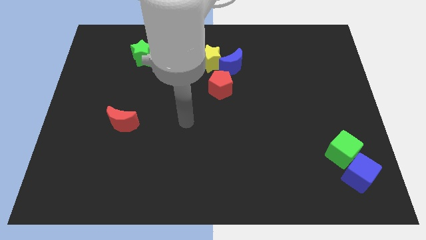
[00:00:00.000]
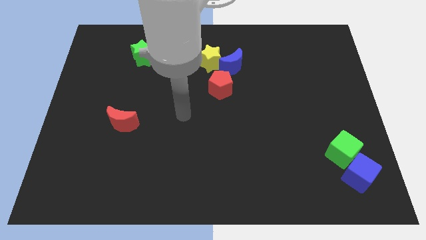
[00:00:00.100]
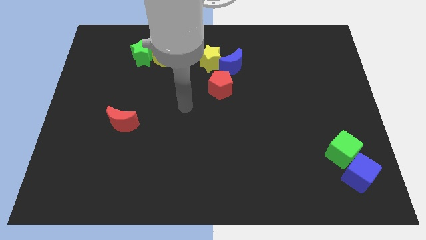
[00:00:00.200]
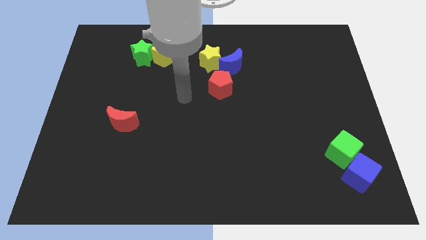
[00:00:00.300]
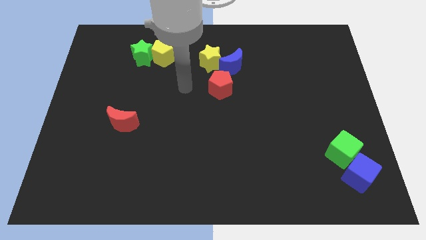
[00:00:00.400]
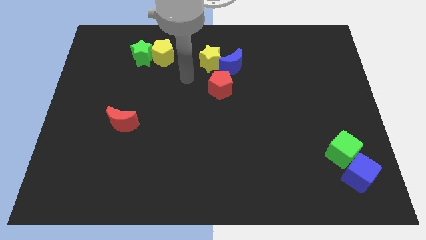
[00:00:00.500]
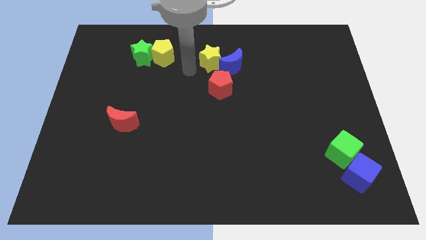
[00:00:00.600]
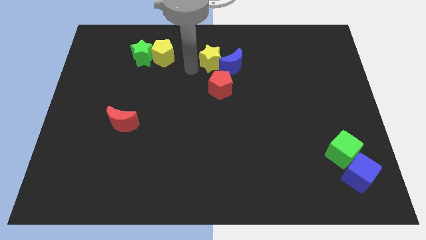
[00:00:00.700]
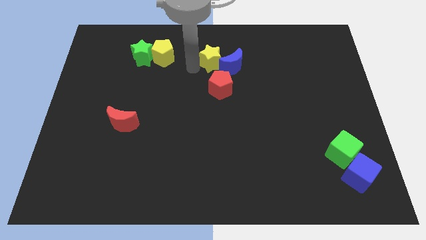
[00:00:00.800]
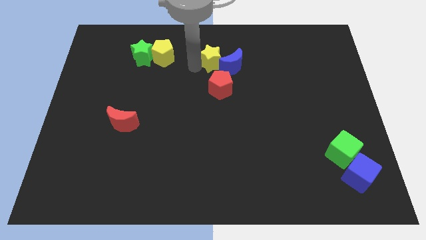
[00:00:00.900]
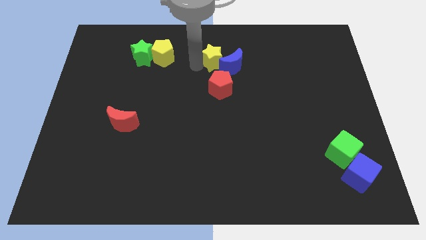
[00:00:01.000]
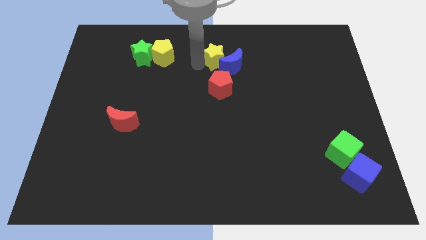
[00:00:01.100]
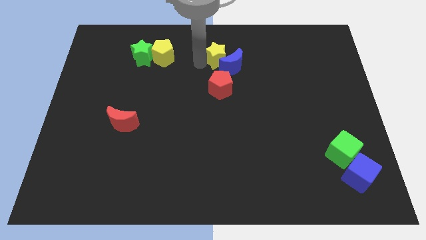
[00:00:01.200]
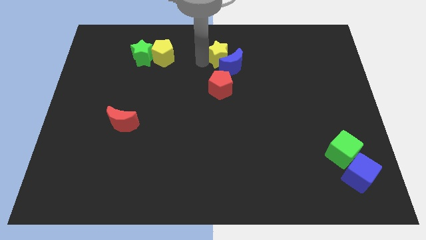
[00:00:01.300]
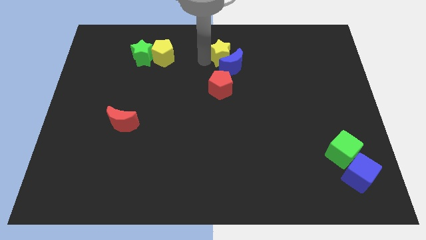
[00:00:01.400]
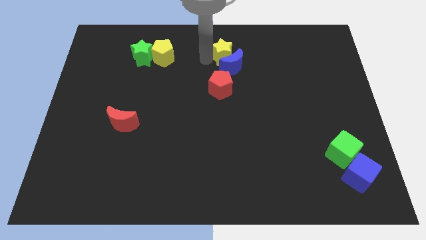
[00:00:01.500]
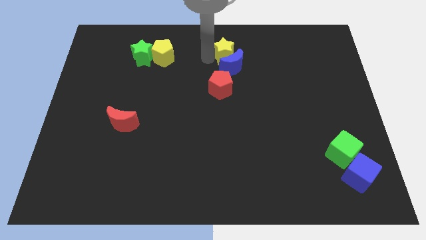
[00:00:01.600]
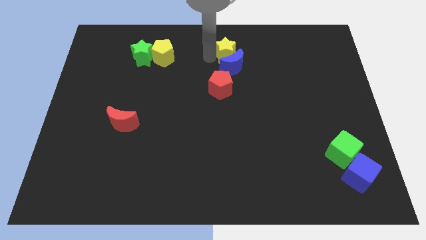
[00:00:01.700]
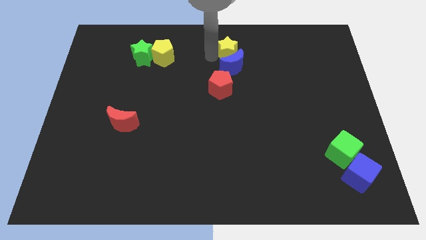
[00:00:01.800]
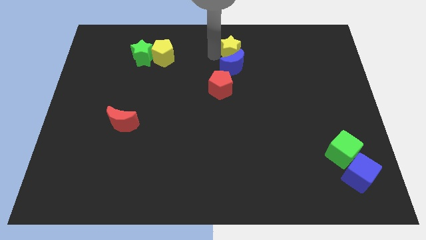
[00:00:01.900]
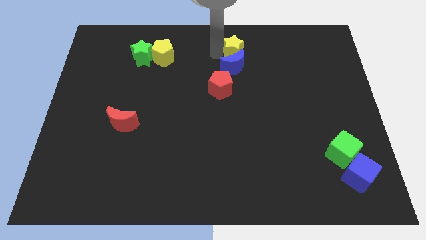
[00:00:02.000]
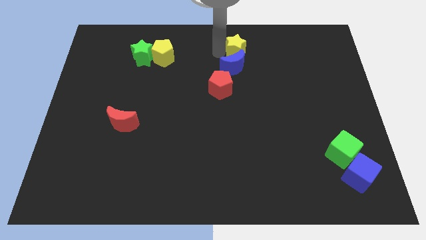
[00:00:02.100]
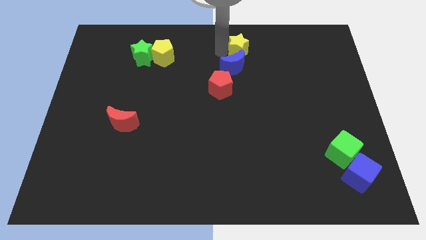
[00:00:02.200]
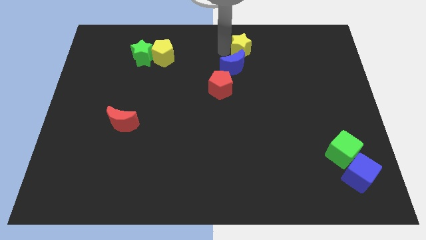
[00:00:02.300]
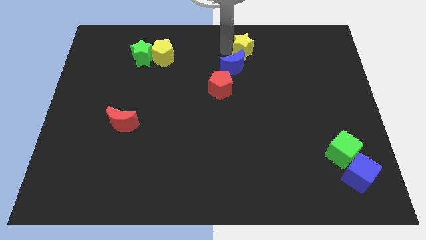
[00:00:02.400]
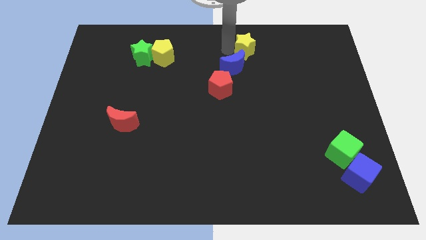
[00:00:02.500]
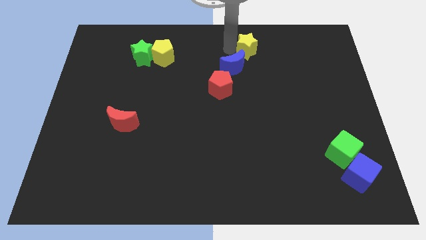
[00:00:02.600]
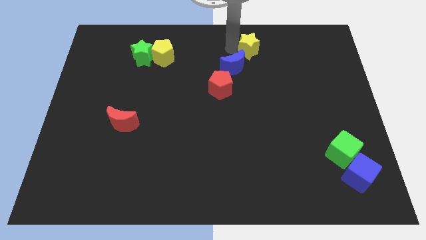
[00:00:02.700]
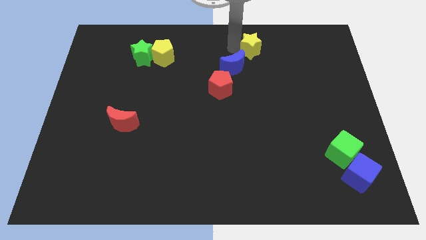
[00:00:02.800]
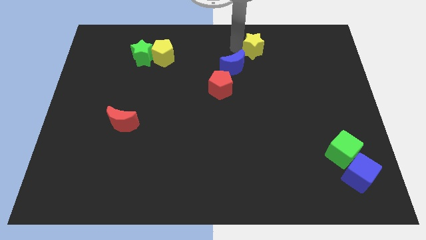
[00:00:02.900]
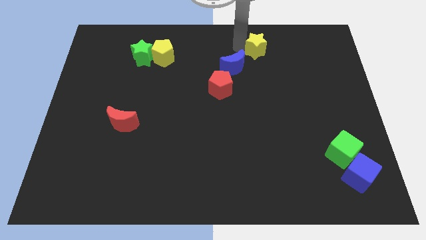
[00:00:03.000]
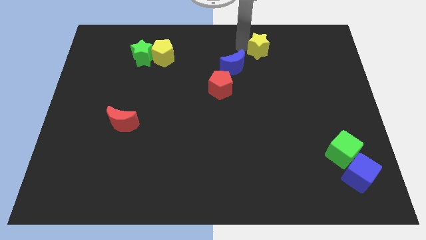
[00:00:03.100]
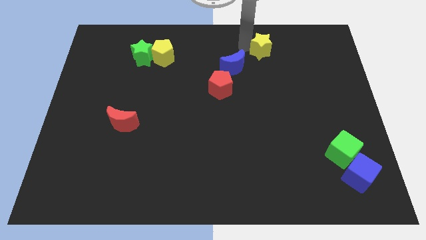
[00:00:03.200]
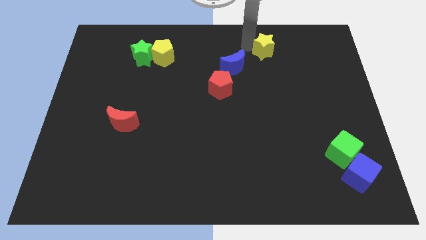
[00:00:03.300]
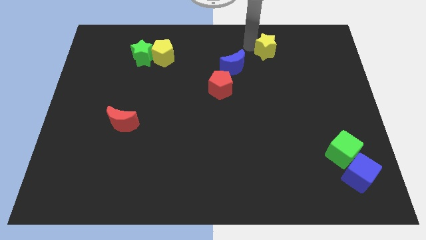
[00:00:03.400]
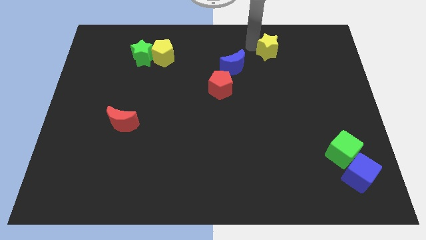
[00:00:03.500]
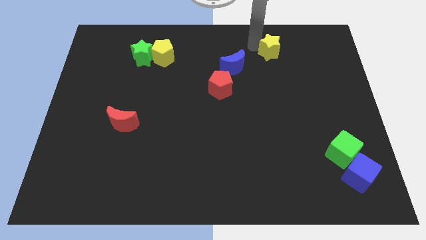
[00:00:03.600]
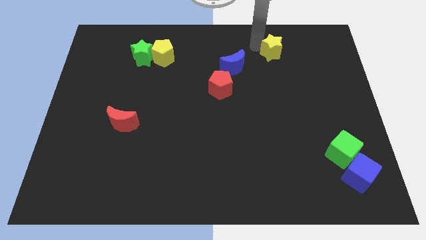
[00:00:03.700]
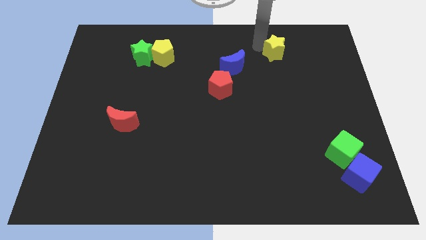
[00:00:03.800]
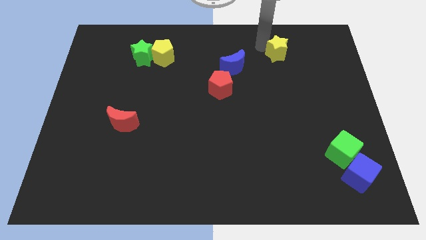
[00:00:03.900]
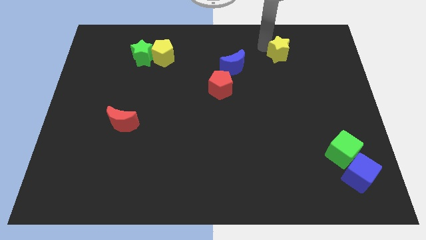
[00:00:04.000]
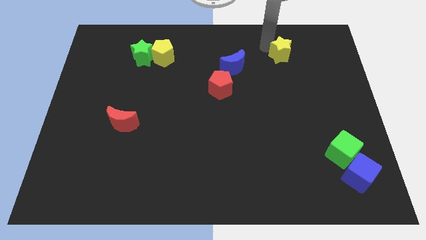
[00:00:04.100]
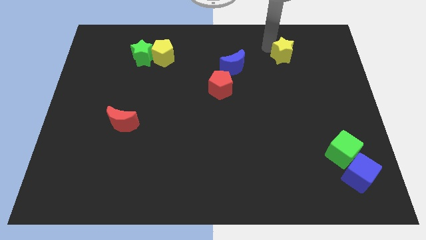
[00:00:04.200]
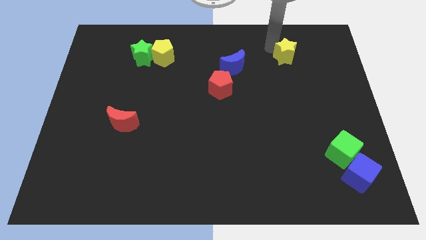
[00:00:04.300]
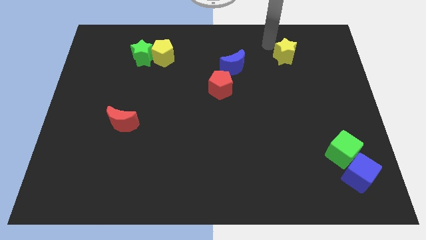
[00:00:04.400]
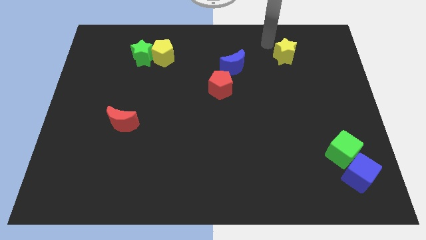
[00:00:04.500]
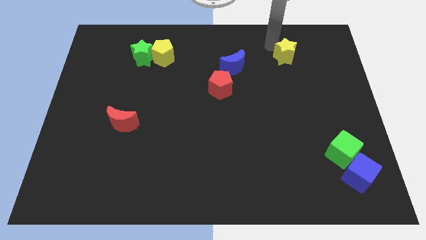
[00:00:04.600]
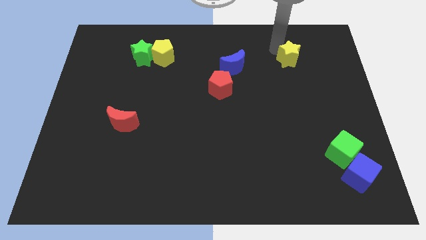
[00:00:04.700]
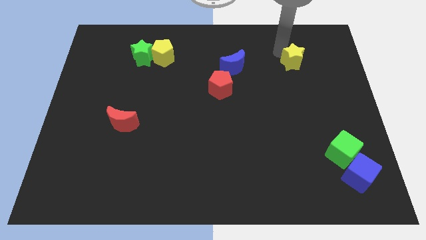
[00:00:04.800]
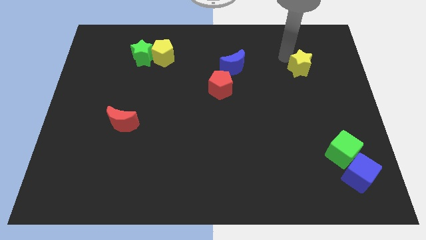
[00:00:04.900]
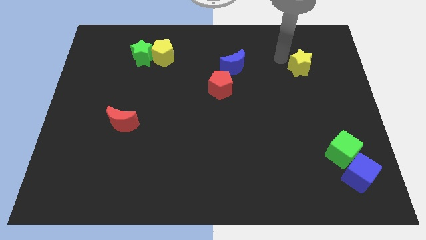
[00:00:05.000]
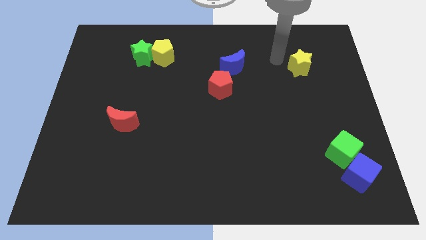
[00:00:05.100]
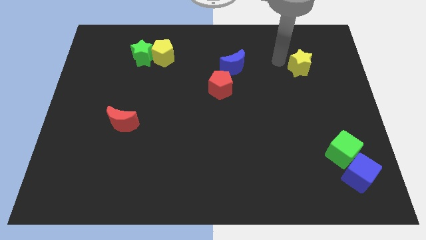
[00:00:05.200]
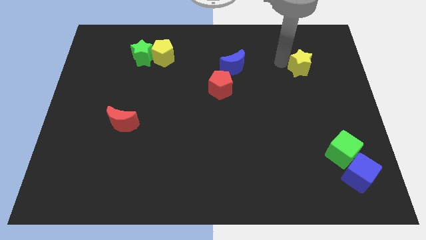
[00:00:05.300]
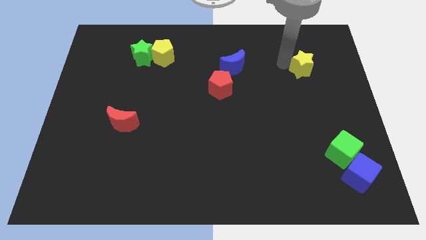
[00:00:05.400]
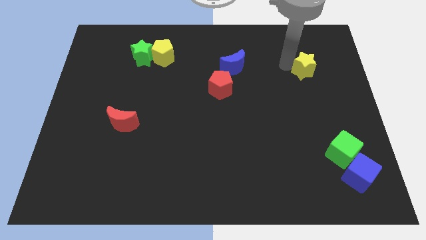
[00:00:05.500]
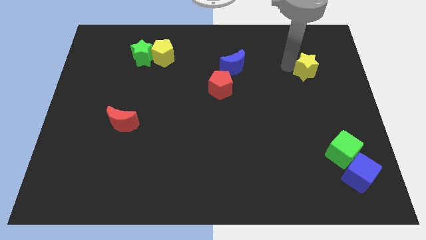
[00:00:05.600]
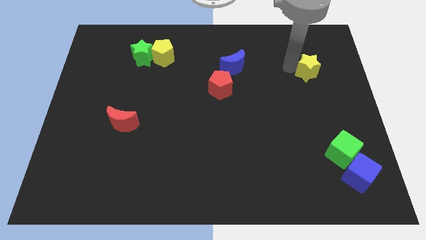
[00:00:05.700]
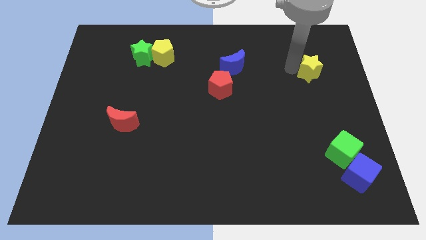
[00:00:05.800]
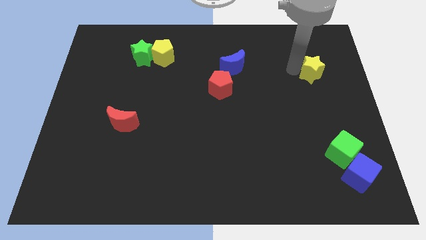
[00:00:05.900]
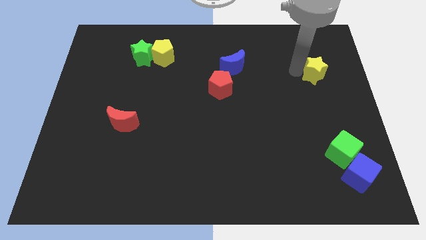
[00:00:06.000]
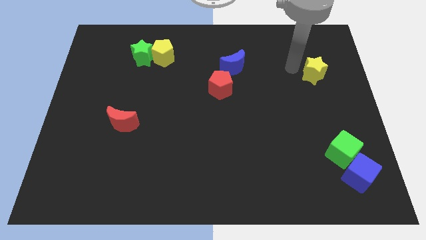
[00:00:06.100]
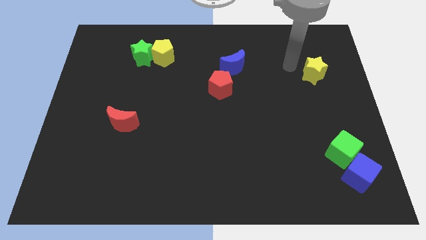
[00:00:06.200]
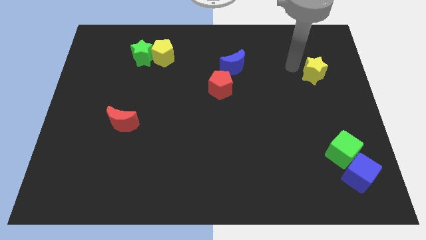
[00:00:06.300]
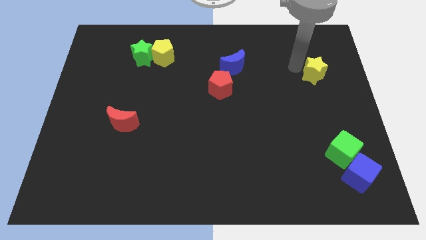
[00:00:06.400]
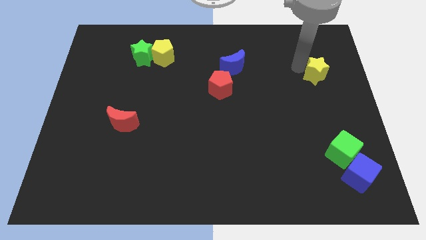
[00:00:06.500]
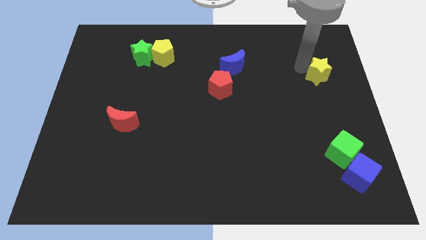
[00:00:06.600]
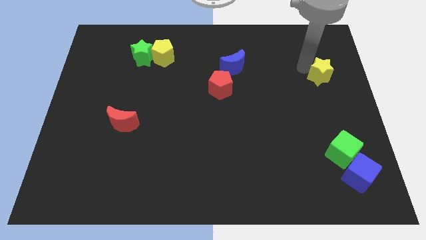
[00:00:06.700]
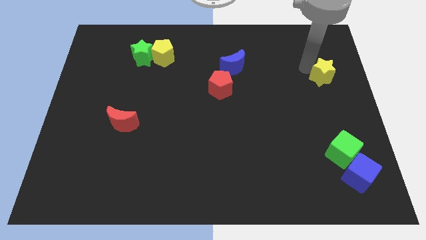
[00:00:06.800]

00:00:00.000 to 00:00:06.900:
slide the yellow star to the right side
